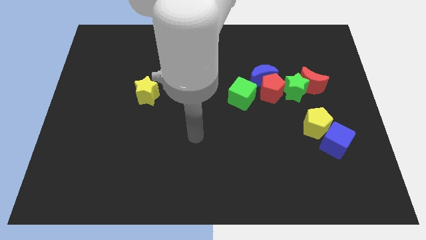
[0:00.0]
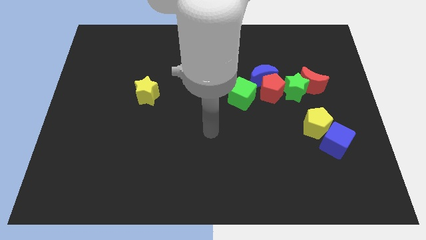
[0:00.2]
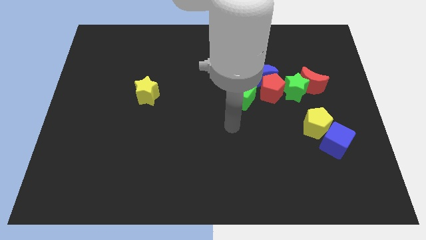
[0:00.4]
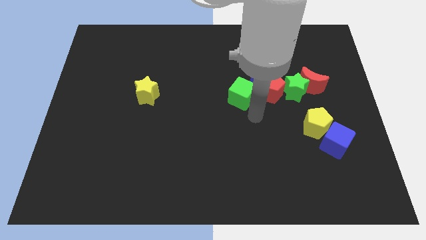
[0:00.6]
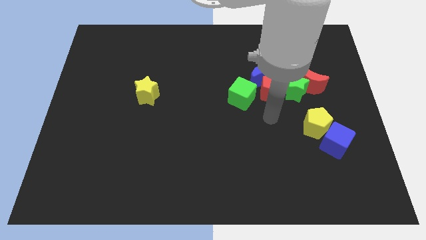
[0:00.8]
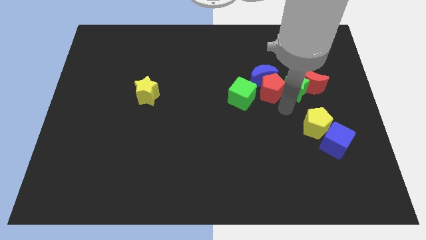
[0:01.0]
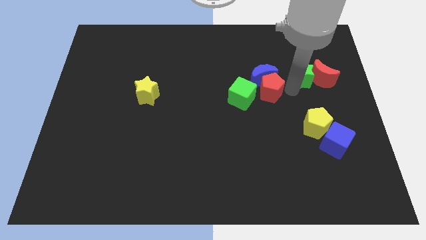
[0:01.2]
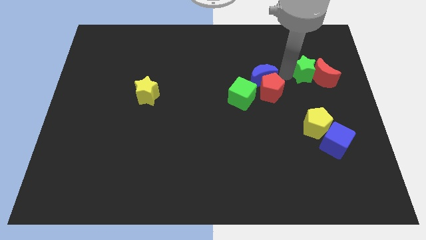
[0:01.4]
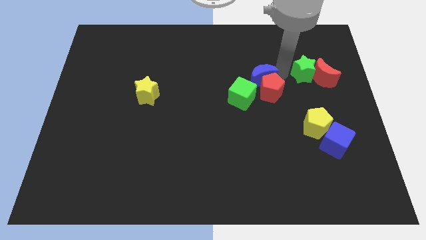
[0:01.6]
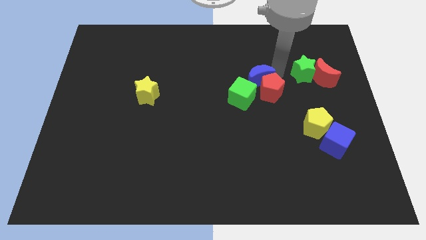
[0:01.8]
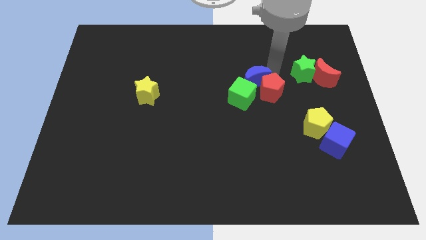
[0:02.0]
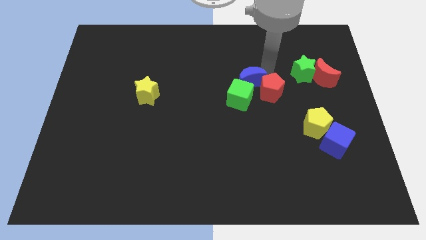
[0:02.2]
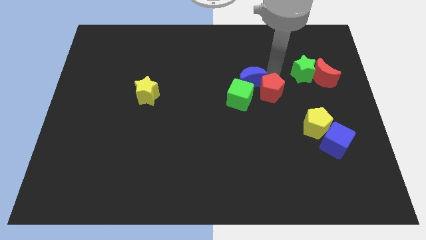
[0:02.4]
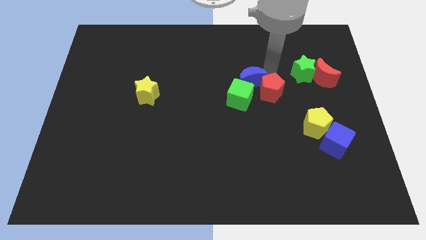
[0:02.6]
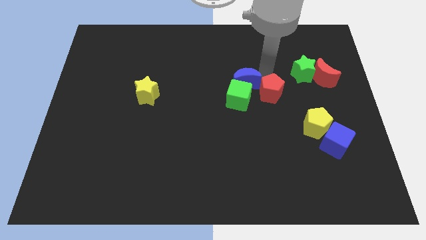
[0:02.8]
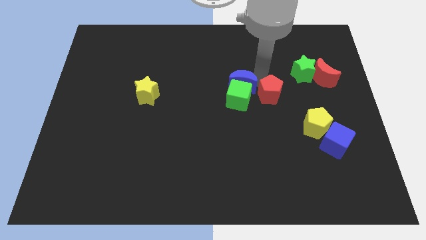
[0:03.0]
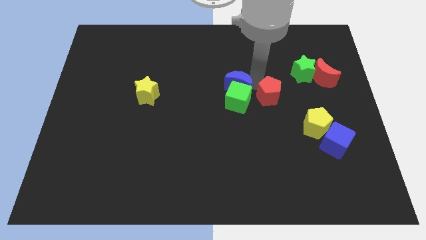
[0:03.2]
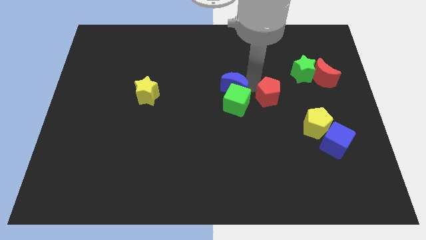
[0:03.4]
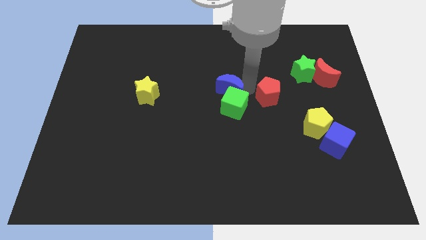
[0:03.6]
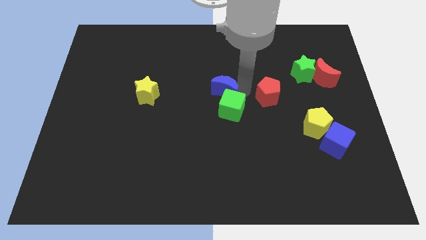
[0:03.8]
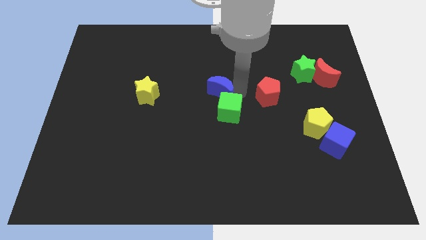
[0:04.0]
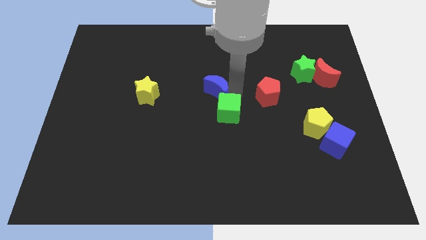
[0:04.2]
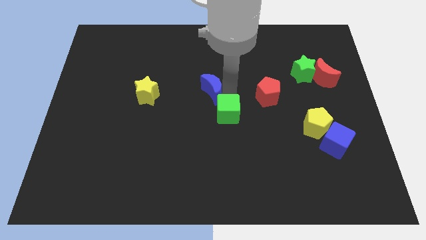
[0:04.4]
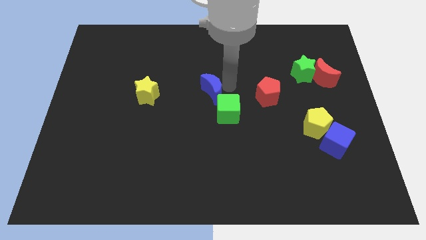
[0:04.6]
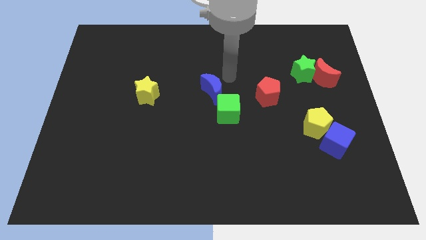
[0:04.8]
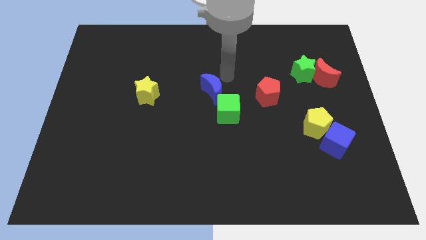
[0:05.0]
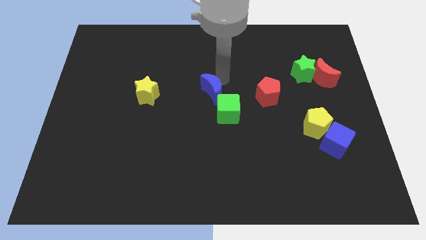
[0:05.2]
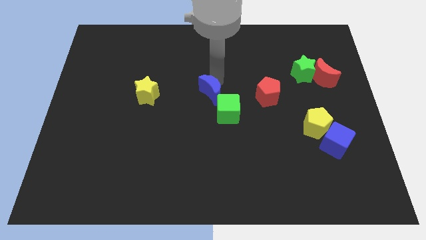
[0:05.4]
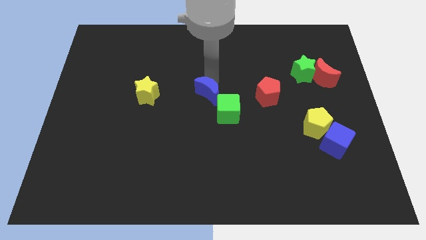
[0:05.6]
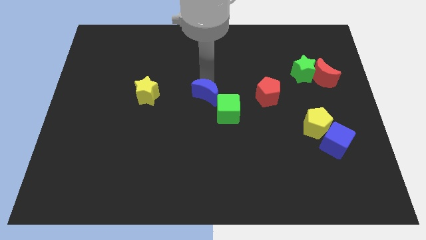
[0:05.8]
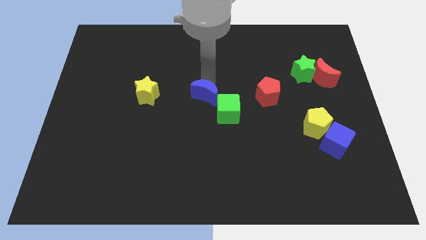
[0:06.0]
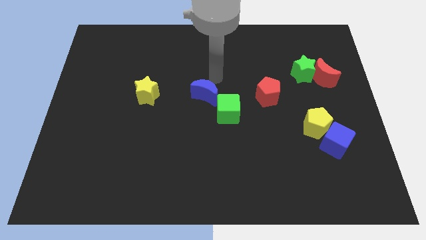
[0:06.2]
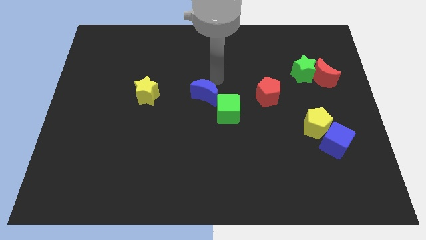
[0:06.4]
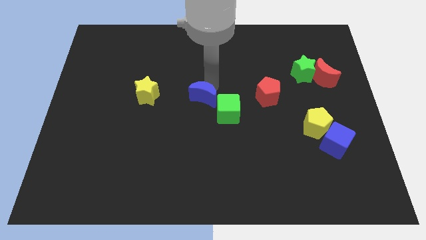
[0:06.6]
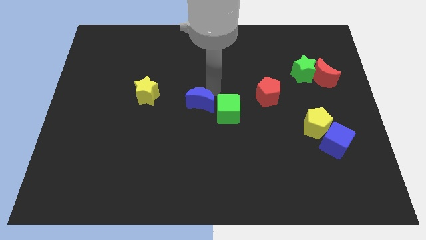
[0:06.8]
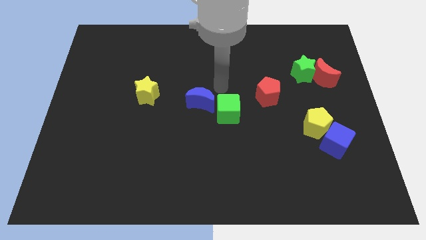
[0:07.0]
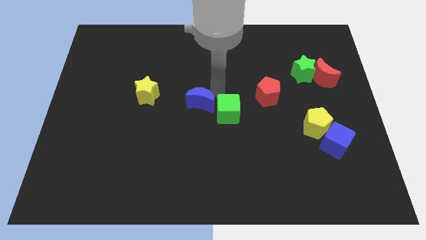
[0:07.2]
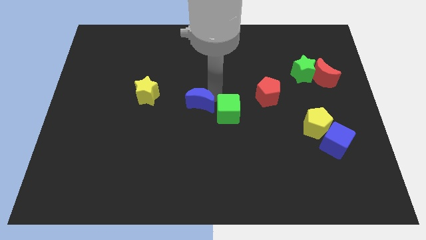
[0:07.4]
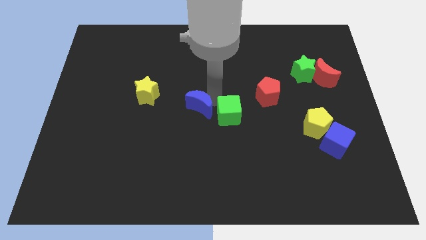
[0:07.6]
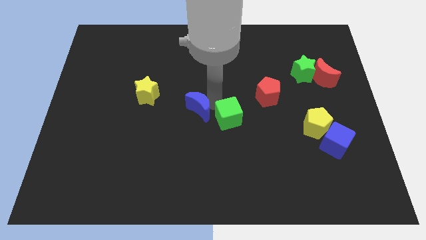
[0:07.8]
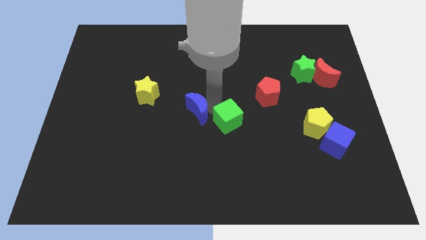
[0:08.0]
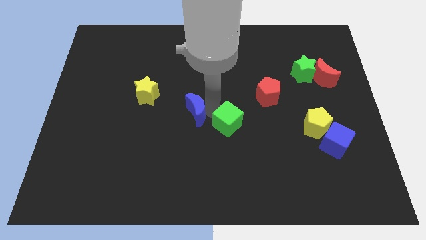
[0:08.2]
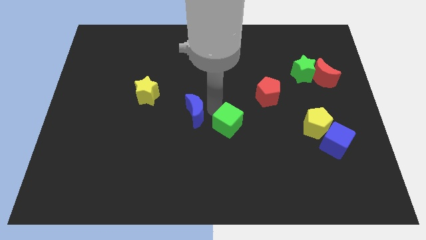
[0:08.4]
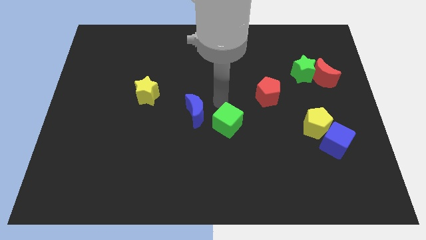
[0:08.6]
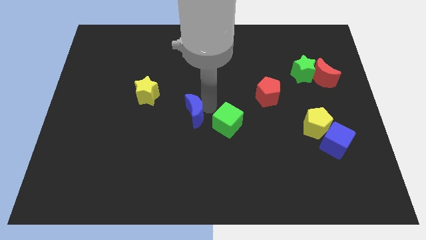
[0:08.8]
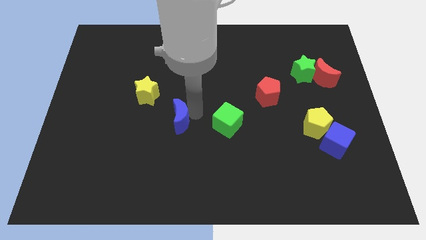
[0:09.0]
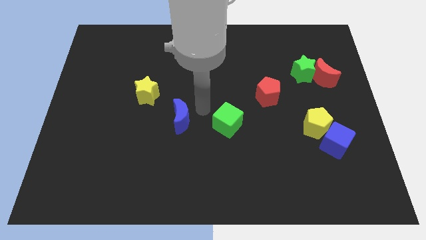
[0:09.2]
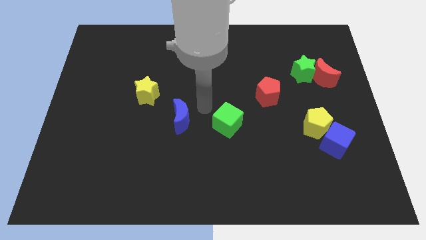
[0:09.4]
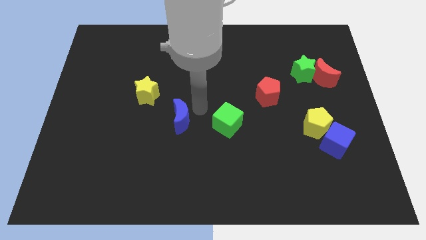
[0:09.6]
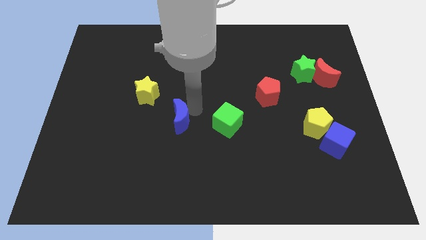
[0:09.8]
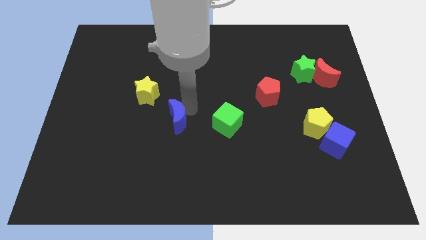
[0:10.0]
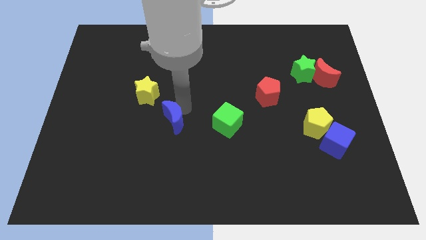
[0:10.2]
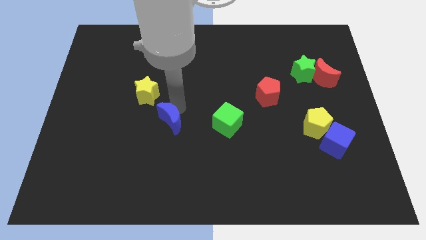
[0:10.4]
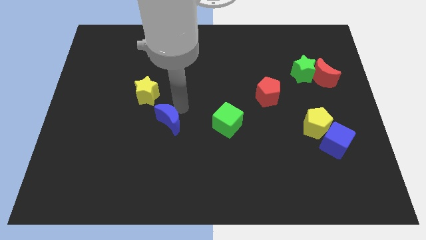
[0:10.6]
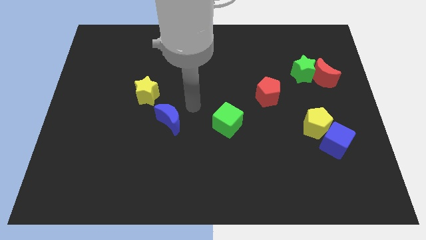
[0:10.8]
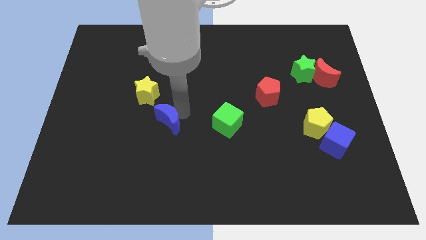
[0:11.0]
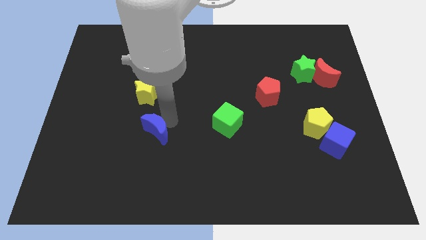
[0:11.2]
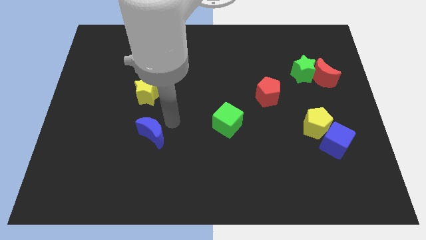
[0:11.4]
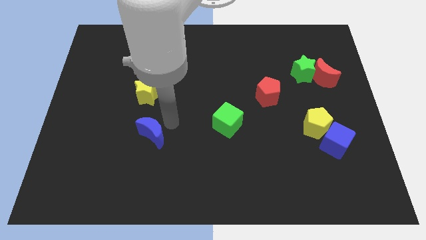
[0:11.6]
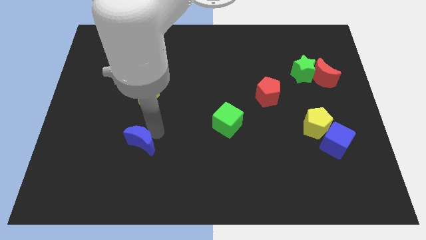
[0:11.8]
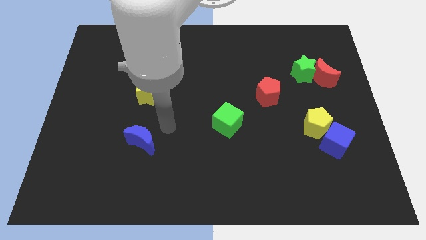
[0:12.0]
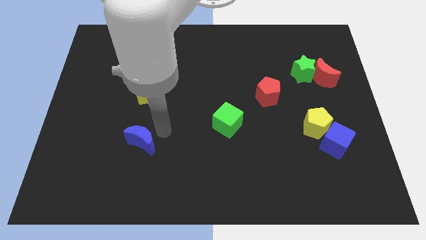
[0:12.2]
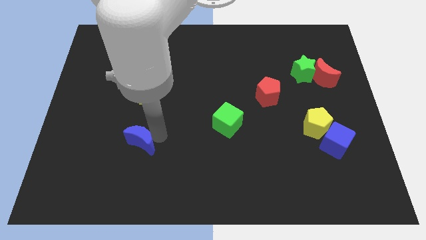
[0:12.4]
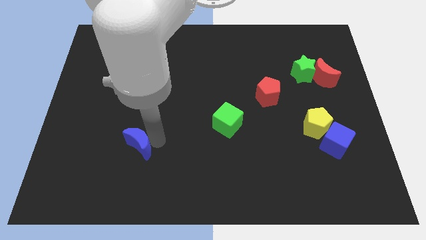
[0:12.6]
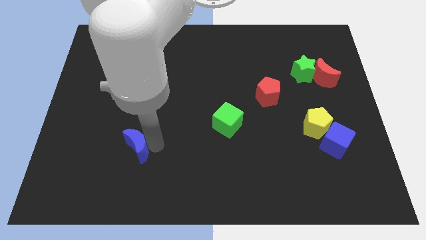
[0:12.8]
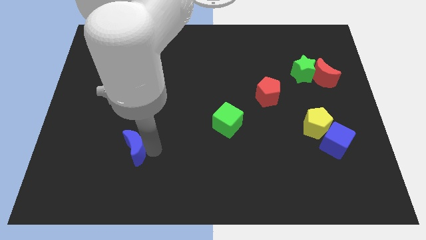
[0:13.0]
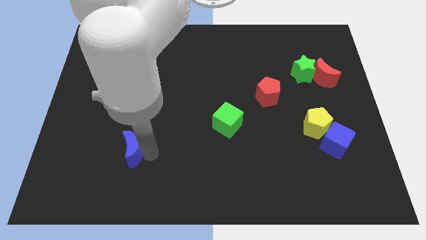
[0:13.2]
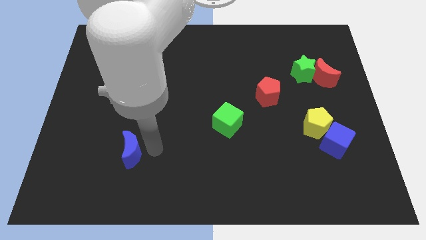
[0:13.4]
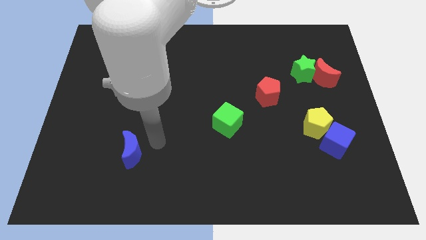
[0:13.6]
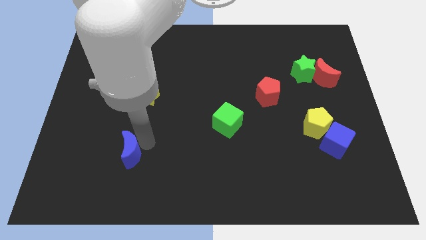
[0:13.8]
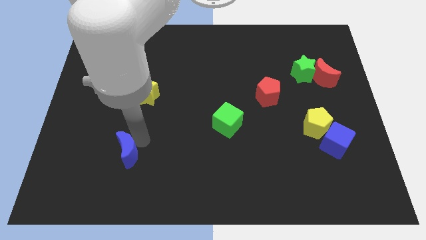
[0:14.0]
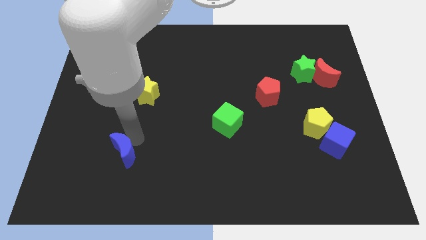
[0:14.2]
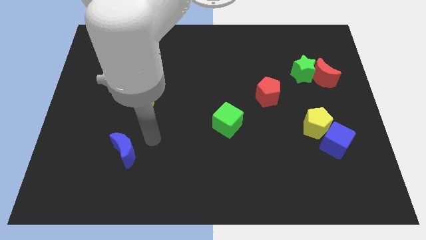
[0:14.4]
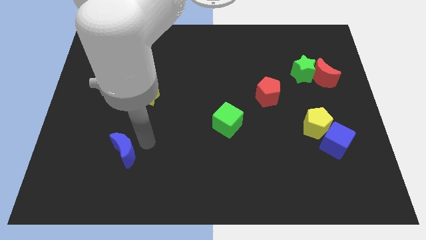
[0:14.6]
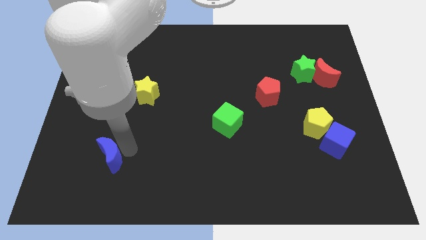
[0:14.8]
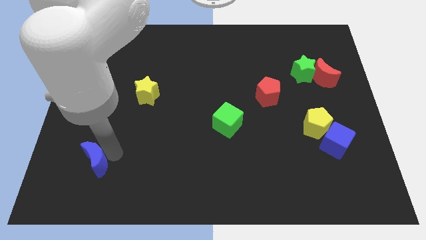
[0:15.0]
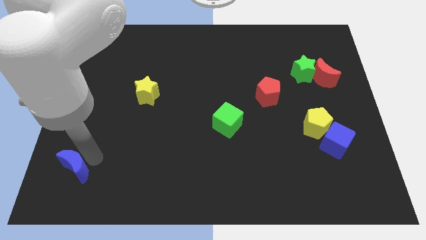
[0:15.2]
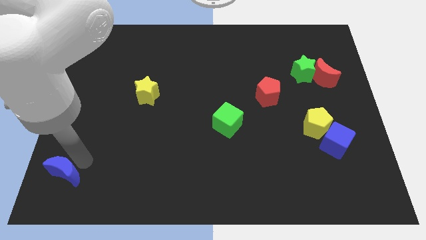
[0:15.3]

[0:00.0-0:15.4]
push the blue moon to the lower left corner
